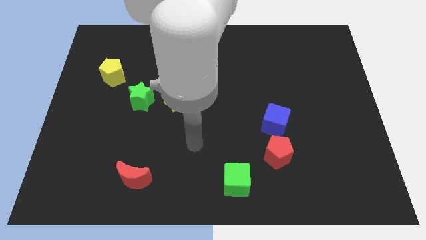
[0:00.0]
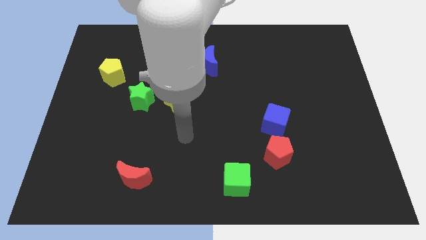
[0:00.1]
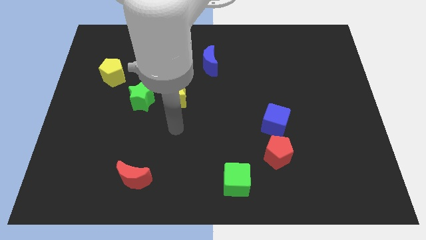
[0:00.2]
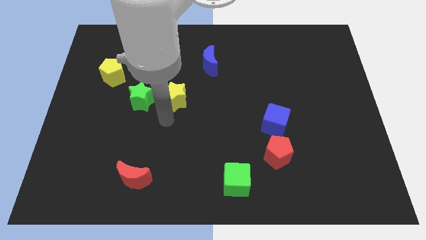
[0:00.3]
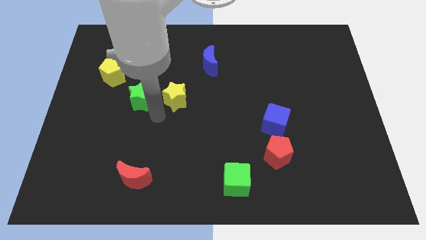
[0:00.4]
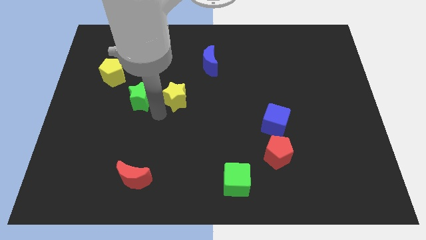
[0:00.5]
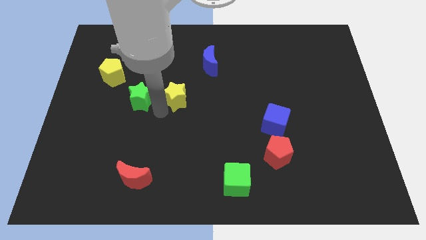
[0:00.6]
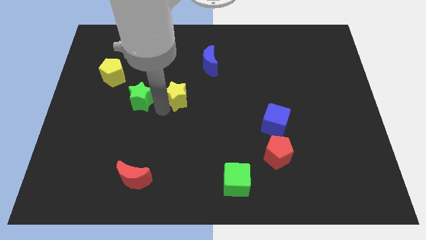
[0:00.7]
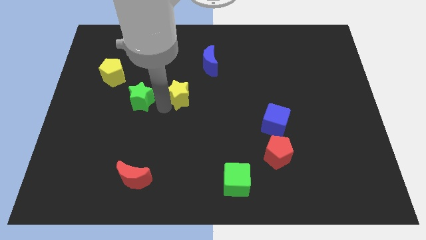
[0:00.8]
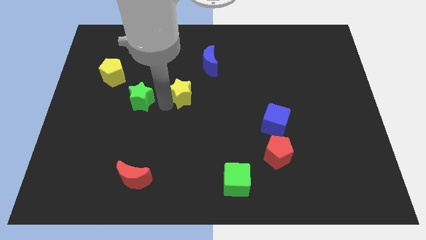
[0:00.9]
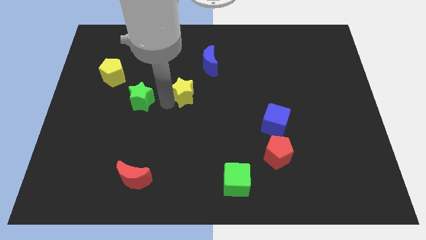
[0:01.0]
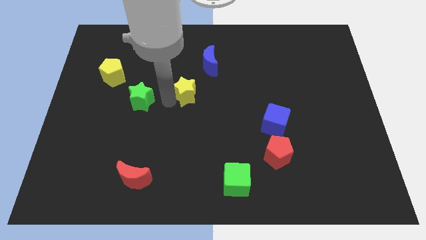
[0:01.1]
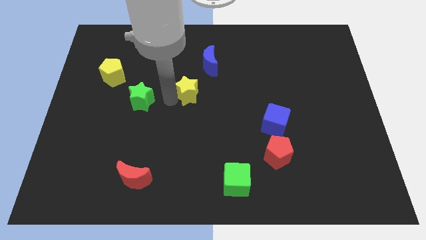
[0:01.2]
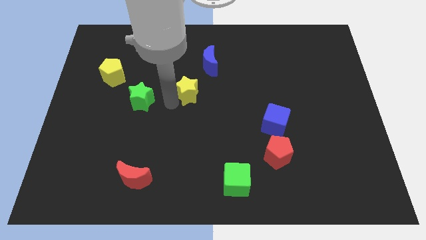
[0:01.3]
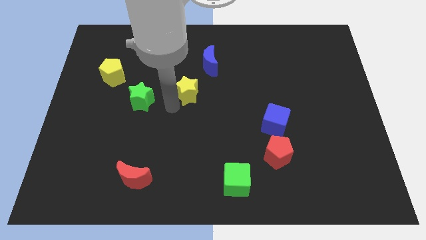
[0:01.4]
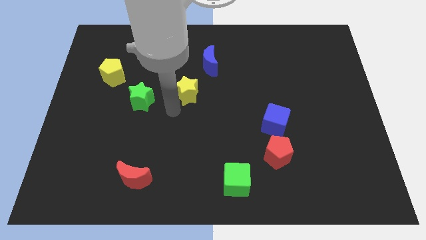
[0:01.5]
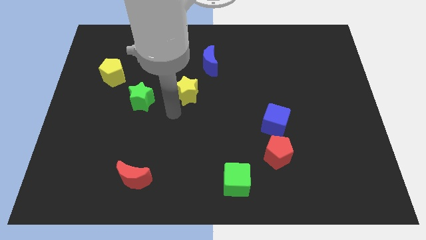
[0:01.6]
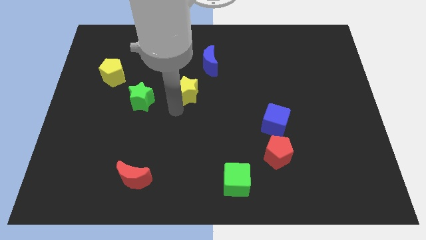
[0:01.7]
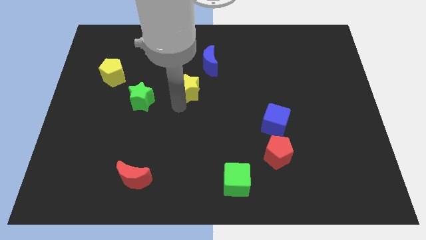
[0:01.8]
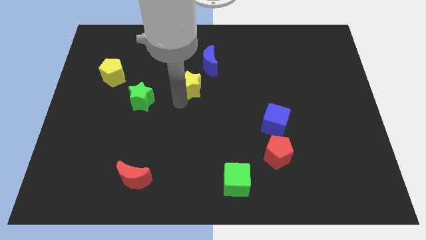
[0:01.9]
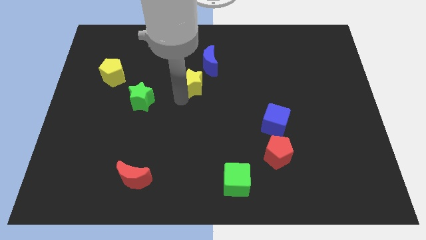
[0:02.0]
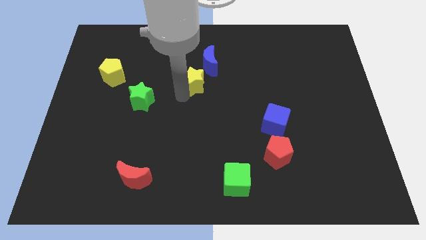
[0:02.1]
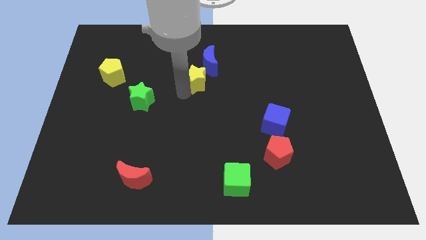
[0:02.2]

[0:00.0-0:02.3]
slightly push the yellow star upwards and to the right

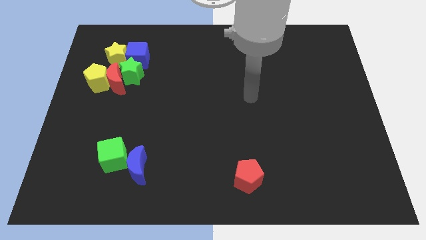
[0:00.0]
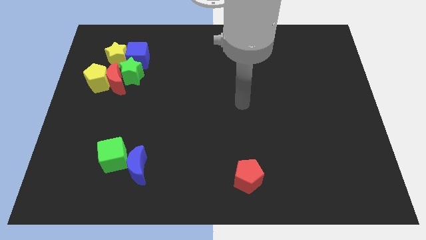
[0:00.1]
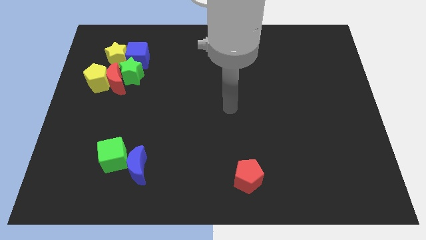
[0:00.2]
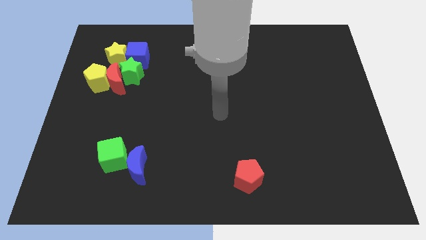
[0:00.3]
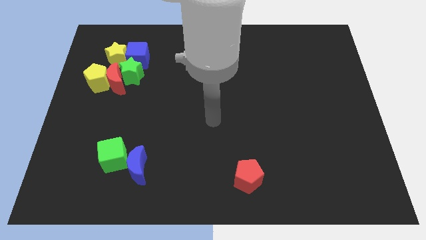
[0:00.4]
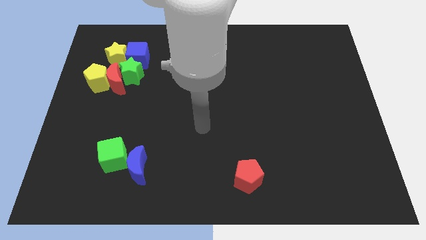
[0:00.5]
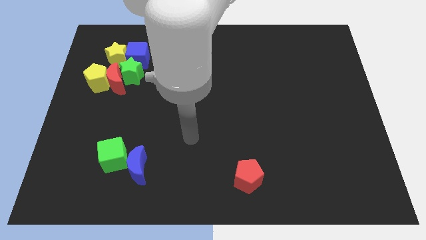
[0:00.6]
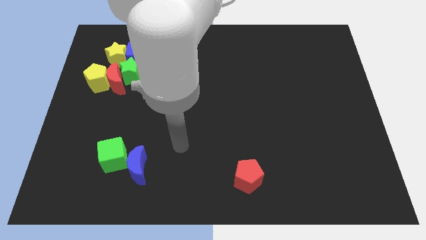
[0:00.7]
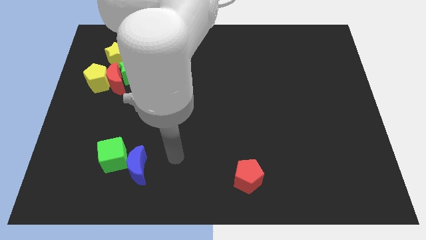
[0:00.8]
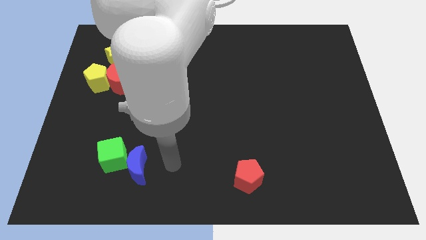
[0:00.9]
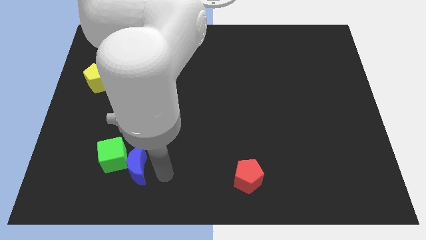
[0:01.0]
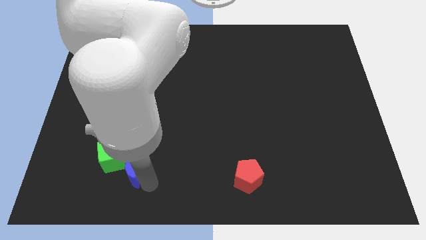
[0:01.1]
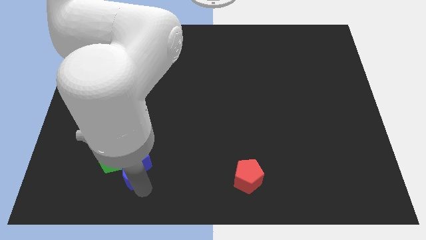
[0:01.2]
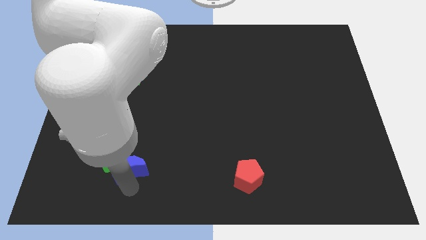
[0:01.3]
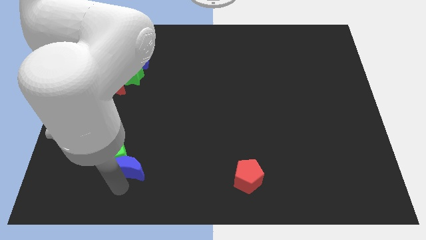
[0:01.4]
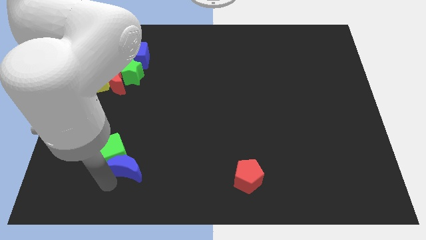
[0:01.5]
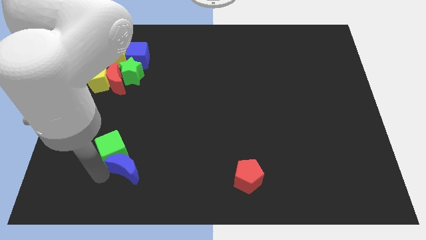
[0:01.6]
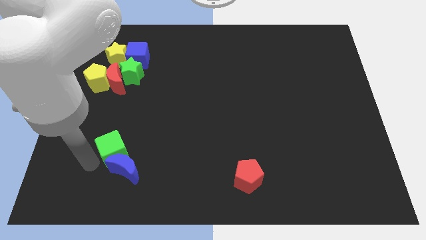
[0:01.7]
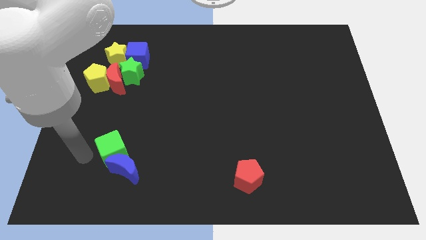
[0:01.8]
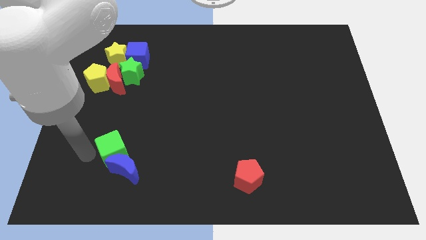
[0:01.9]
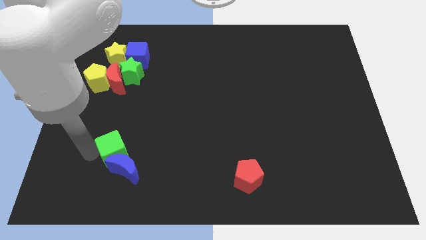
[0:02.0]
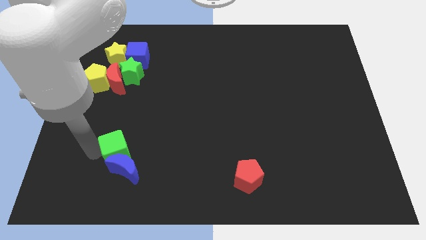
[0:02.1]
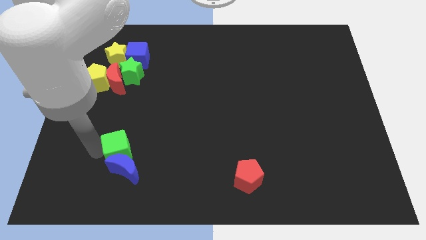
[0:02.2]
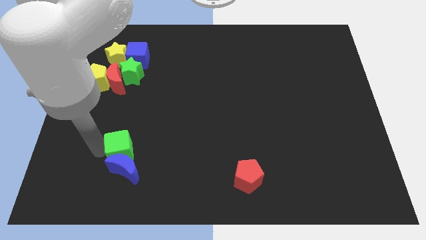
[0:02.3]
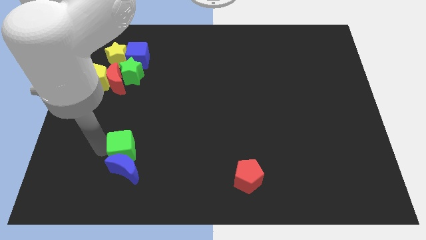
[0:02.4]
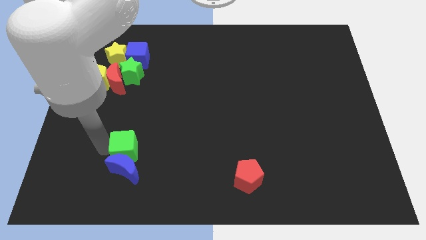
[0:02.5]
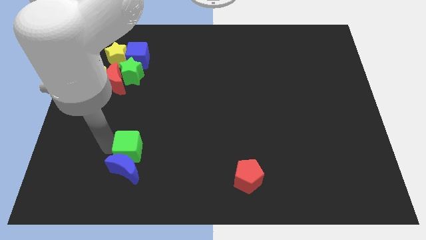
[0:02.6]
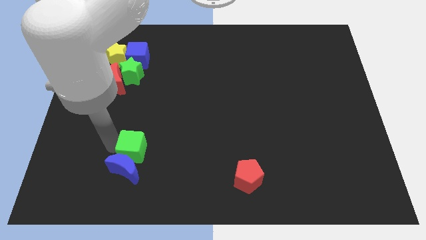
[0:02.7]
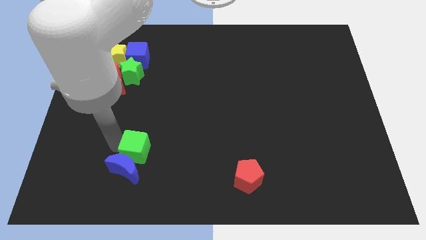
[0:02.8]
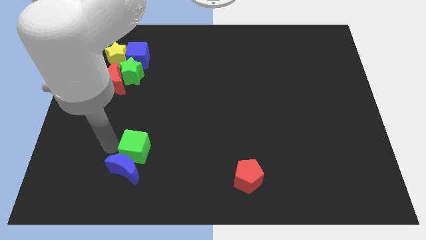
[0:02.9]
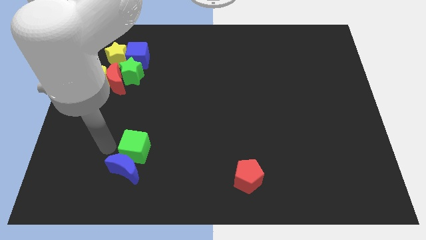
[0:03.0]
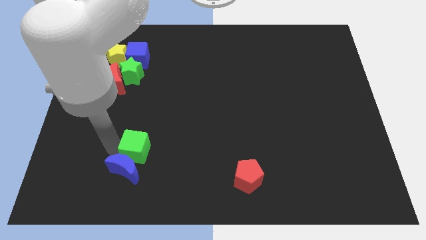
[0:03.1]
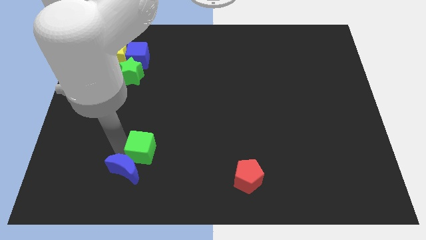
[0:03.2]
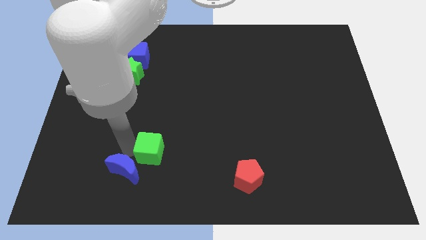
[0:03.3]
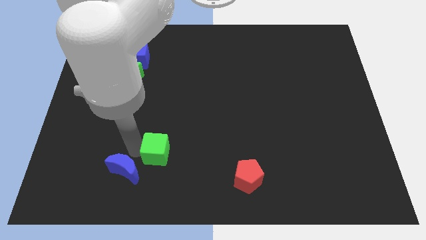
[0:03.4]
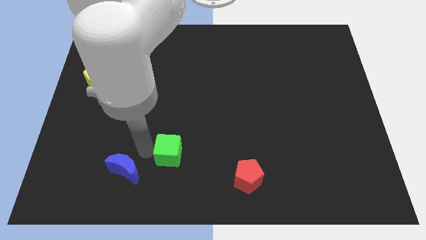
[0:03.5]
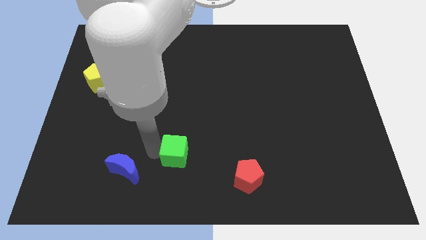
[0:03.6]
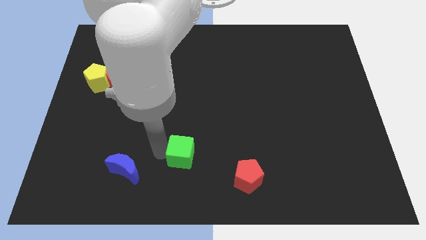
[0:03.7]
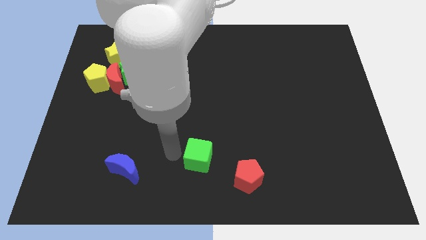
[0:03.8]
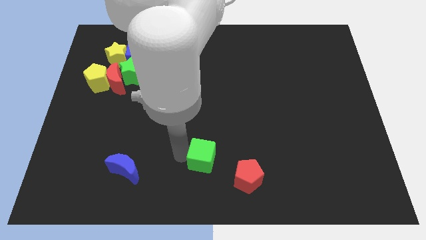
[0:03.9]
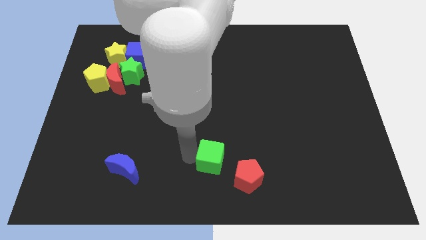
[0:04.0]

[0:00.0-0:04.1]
slide the green cube to the right

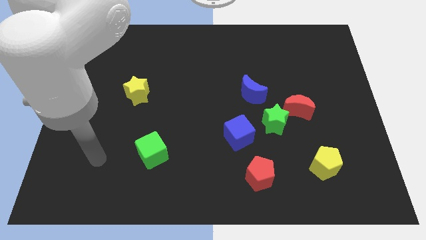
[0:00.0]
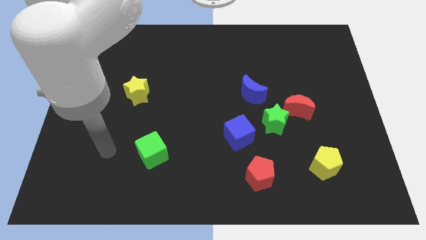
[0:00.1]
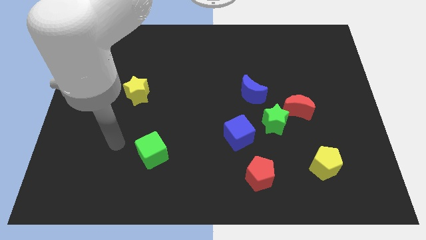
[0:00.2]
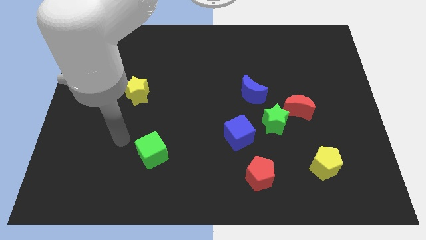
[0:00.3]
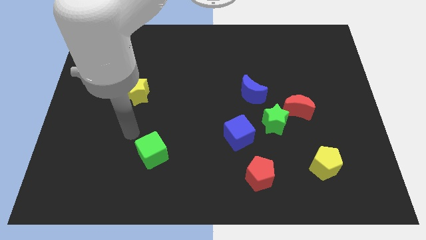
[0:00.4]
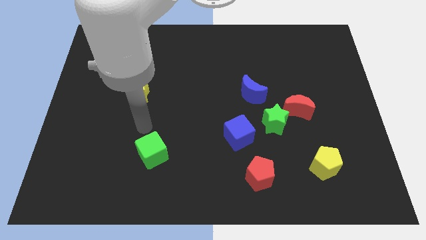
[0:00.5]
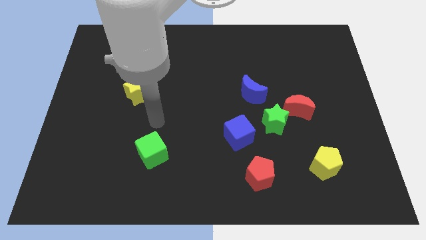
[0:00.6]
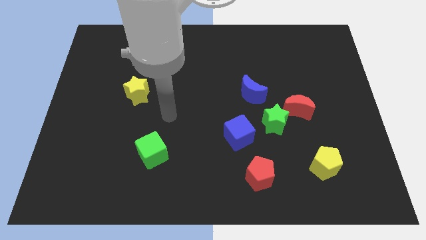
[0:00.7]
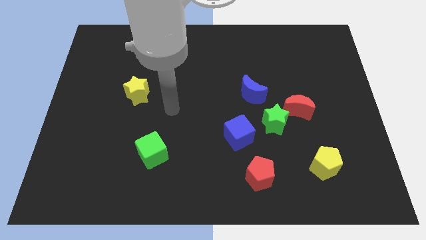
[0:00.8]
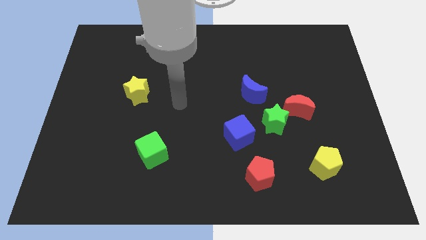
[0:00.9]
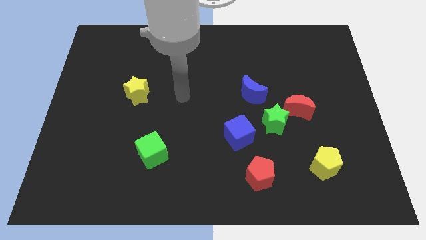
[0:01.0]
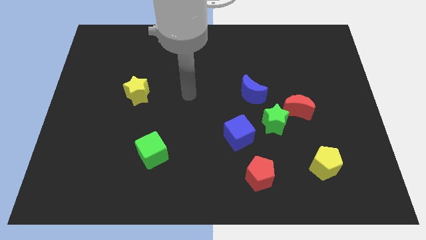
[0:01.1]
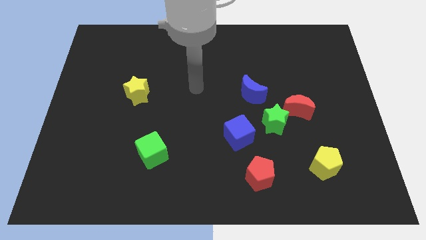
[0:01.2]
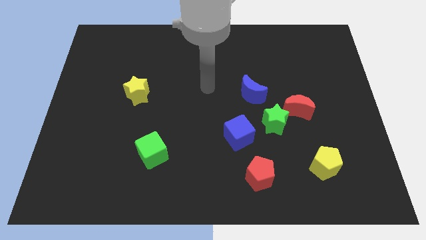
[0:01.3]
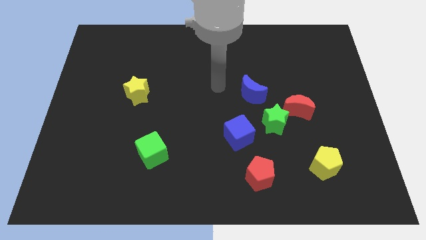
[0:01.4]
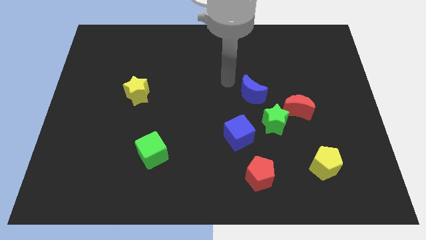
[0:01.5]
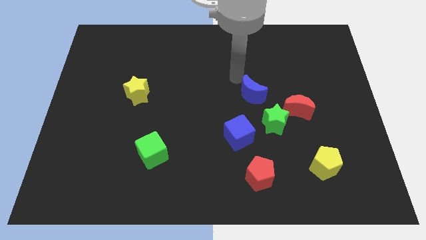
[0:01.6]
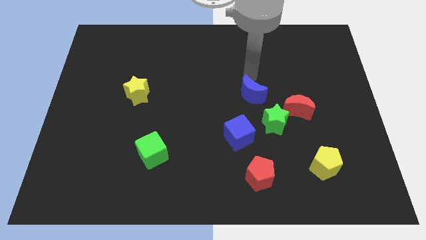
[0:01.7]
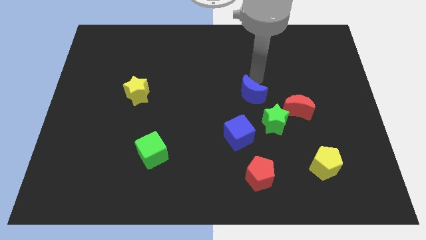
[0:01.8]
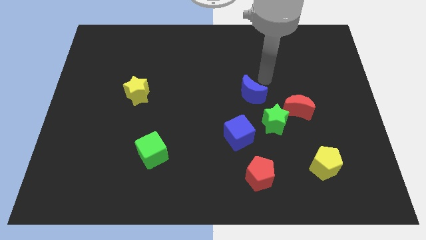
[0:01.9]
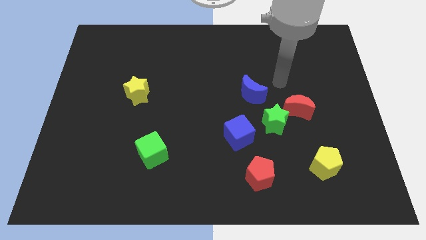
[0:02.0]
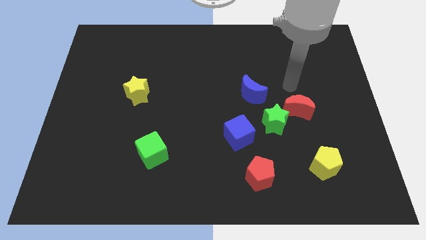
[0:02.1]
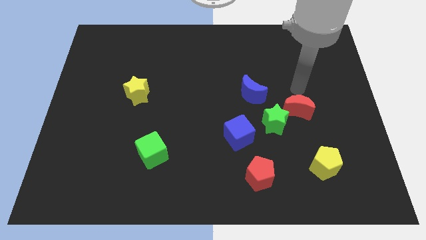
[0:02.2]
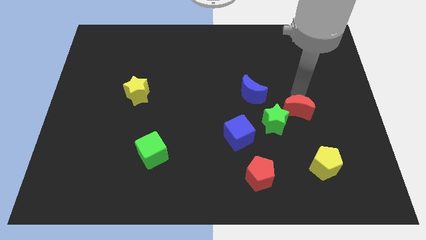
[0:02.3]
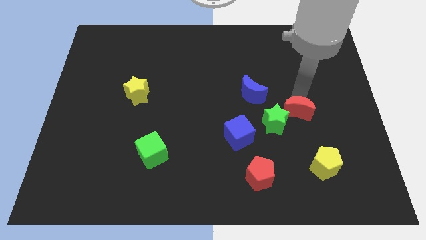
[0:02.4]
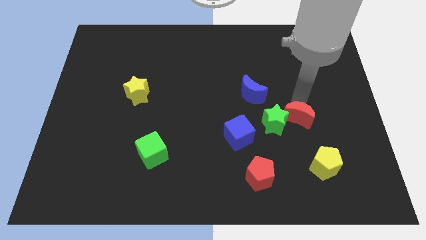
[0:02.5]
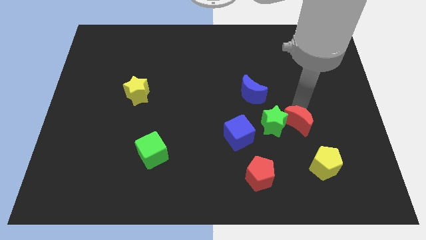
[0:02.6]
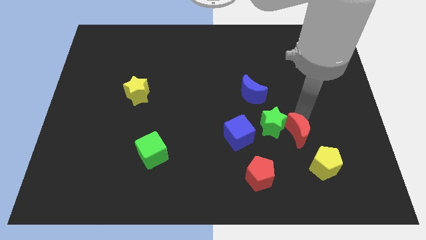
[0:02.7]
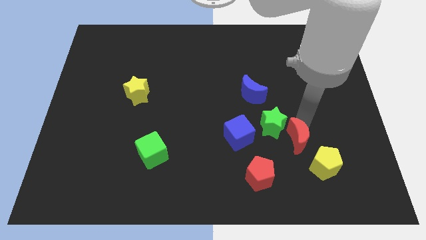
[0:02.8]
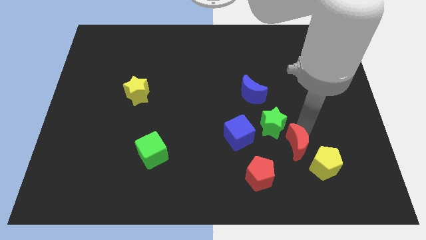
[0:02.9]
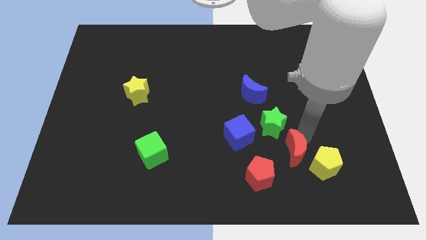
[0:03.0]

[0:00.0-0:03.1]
slide the red moon slightly down and then to the left
